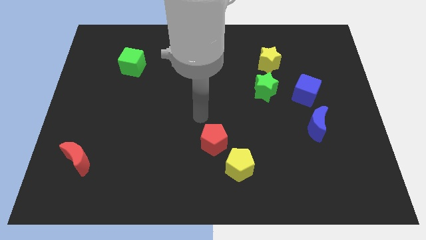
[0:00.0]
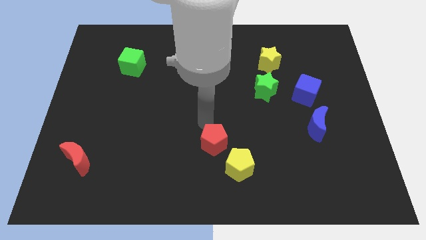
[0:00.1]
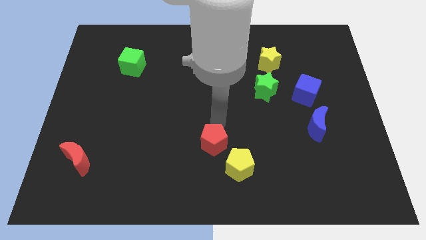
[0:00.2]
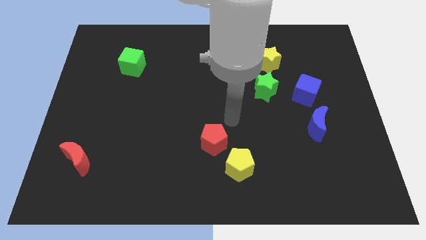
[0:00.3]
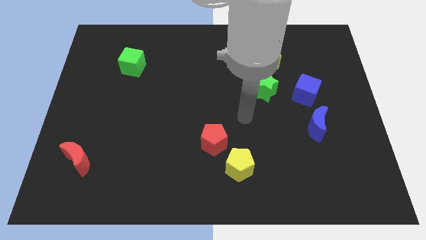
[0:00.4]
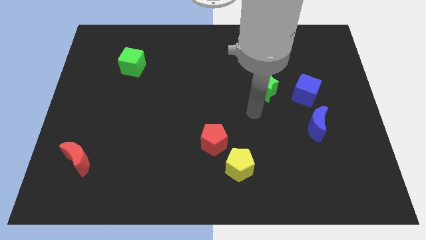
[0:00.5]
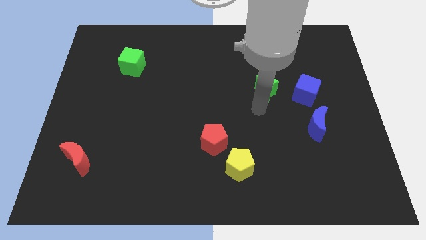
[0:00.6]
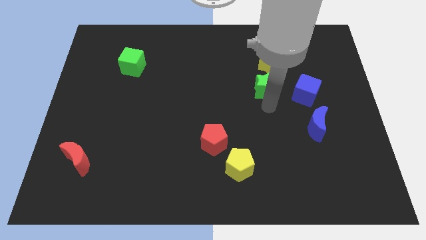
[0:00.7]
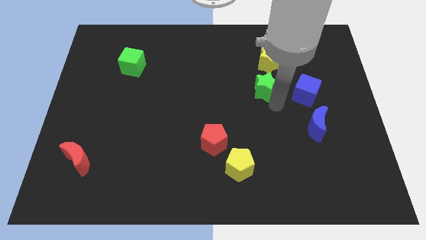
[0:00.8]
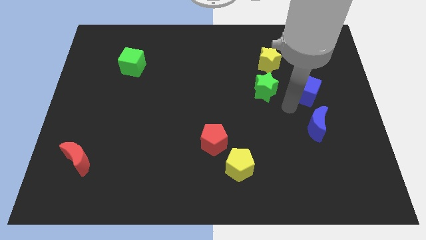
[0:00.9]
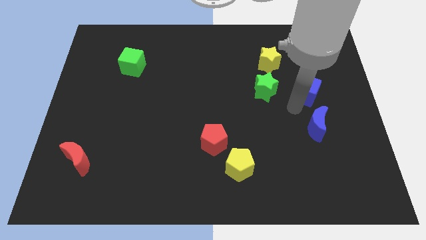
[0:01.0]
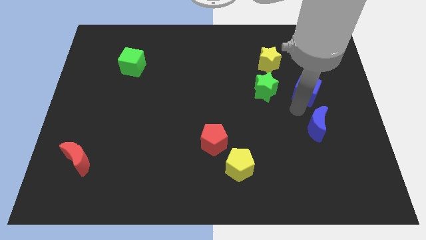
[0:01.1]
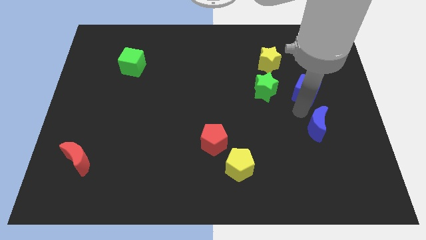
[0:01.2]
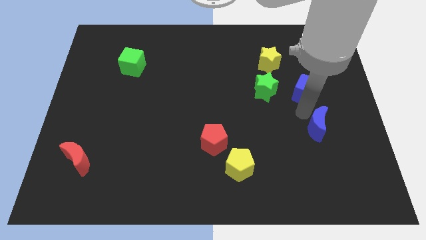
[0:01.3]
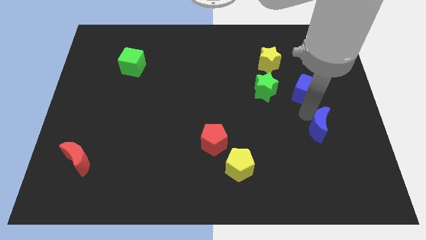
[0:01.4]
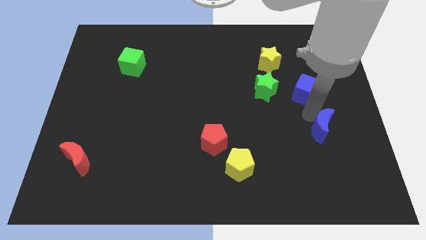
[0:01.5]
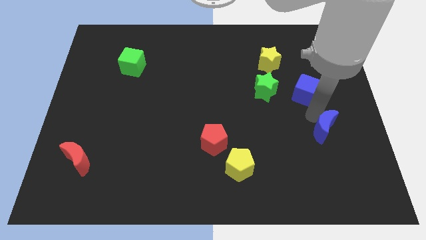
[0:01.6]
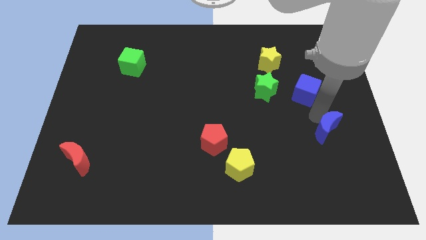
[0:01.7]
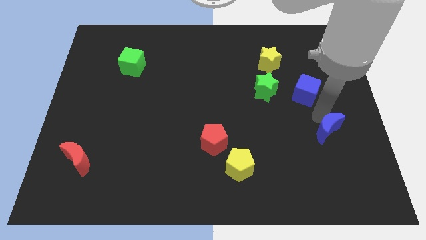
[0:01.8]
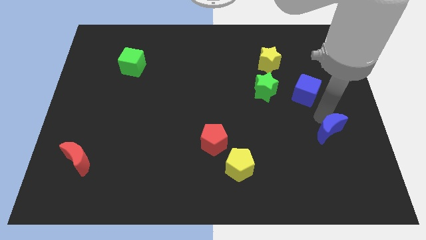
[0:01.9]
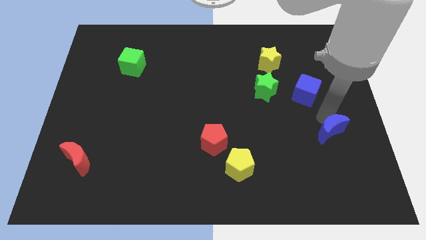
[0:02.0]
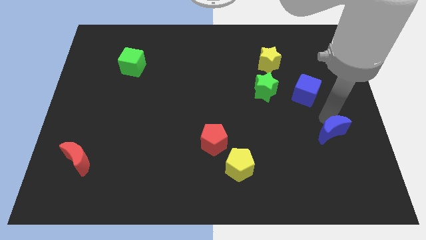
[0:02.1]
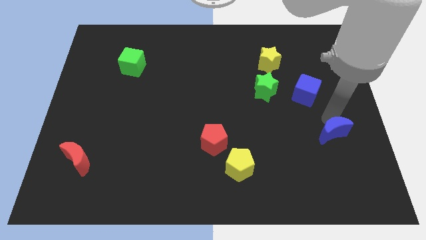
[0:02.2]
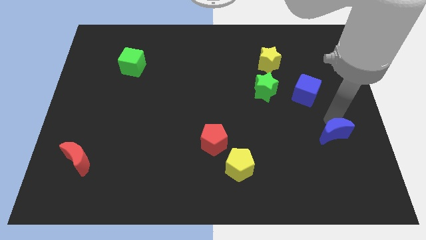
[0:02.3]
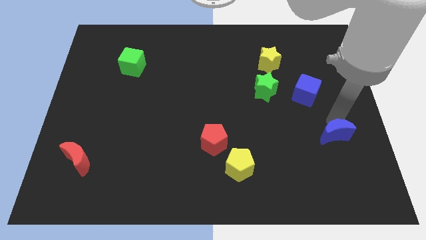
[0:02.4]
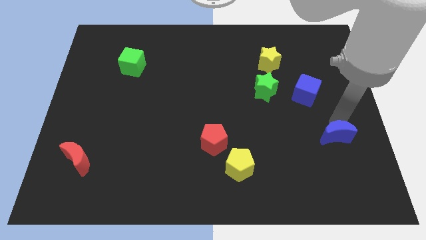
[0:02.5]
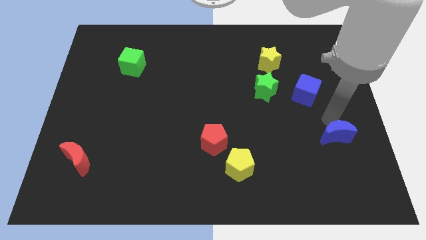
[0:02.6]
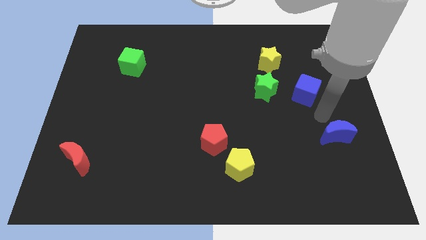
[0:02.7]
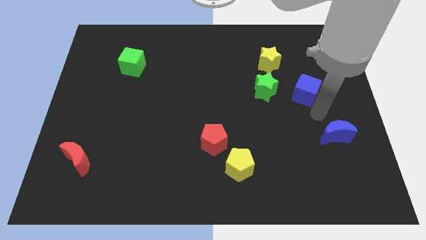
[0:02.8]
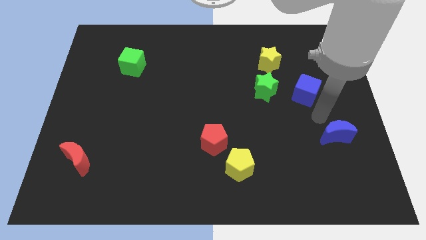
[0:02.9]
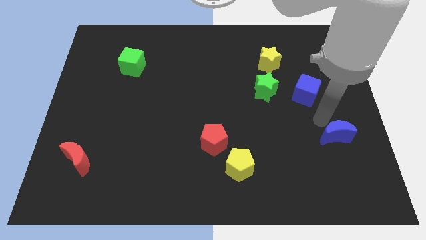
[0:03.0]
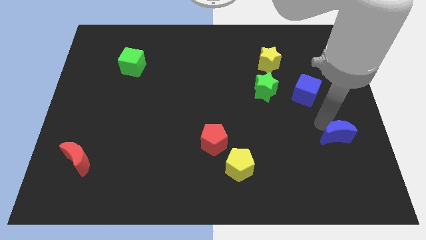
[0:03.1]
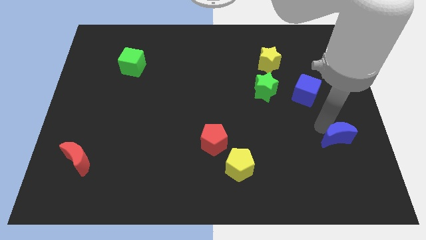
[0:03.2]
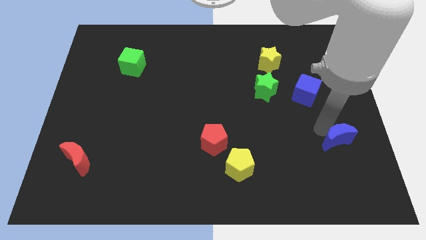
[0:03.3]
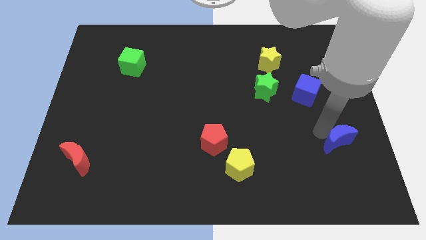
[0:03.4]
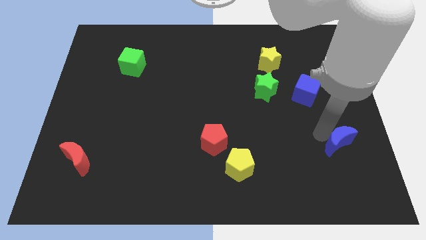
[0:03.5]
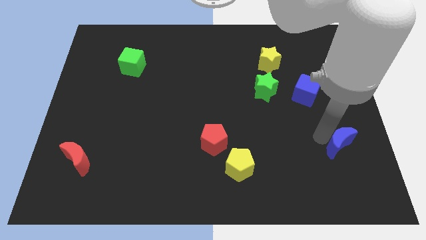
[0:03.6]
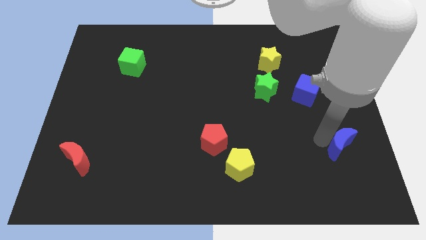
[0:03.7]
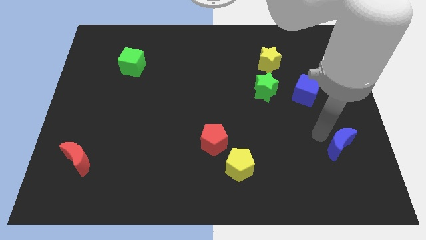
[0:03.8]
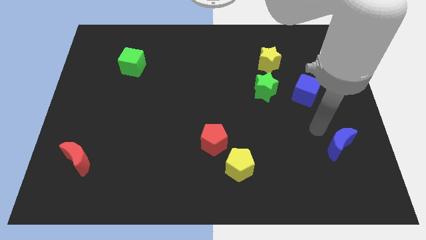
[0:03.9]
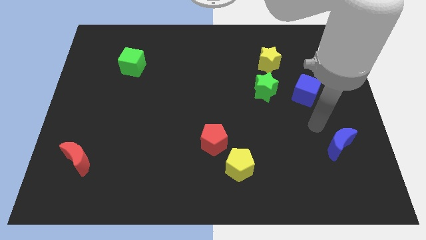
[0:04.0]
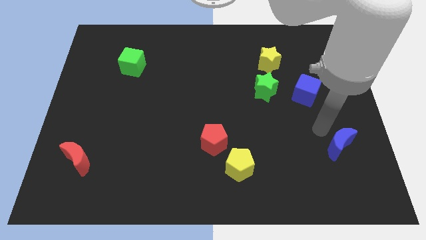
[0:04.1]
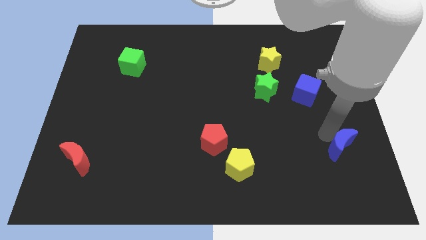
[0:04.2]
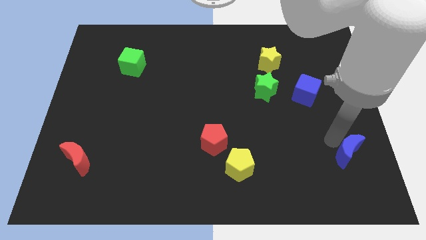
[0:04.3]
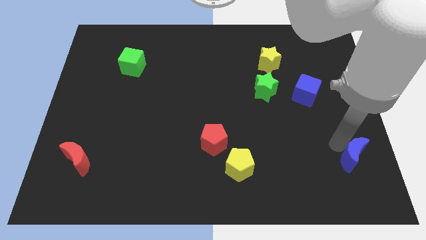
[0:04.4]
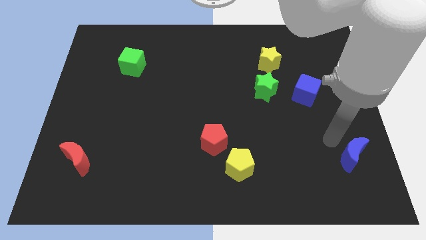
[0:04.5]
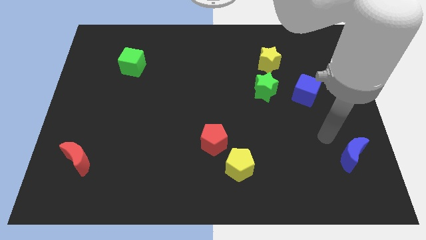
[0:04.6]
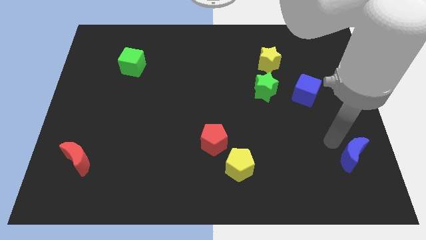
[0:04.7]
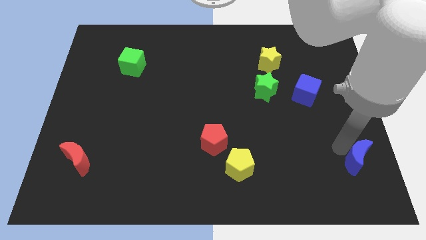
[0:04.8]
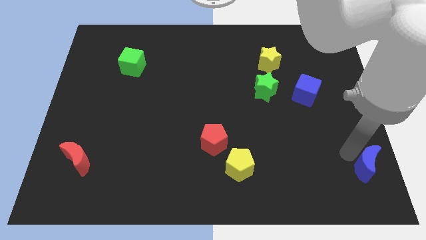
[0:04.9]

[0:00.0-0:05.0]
push the blue moon to the bottom right of the board
